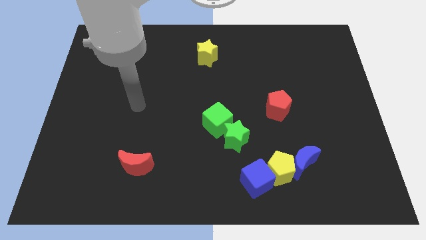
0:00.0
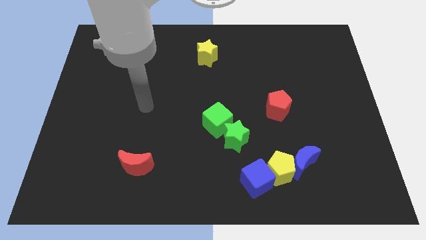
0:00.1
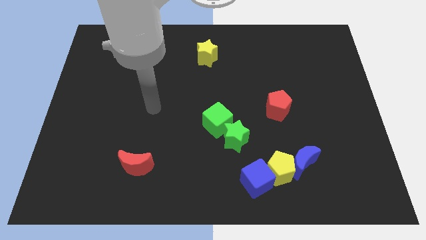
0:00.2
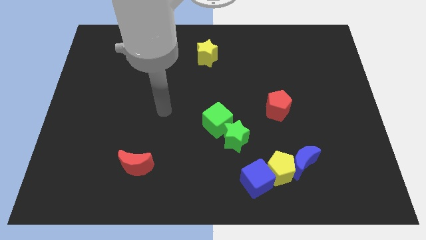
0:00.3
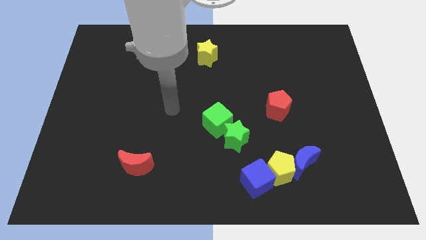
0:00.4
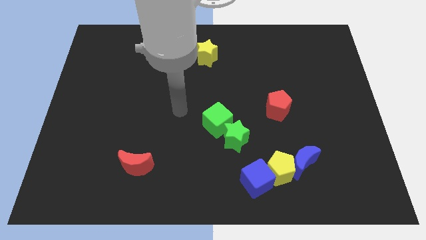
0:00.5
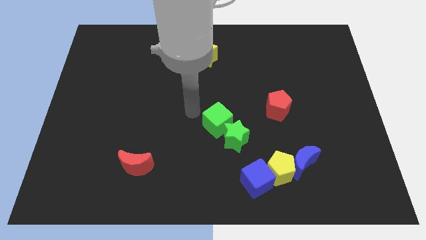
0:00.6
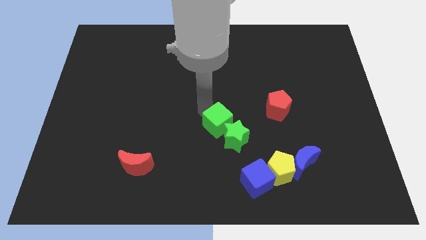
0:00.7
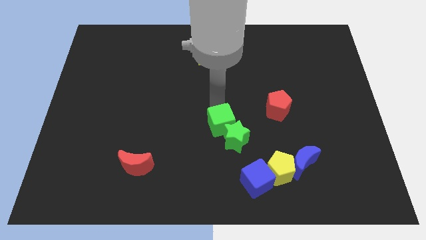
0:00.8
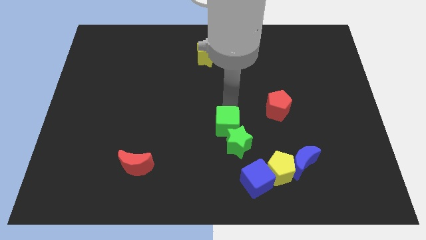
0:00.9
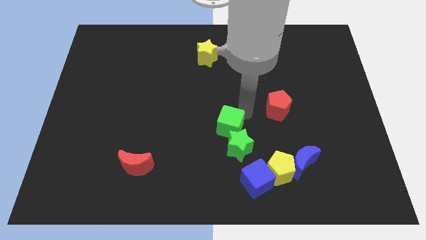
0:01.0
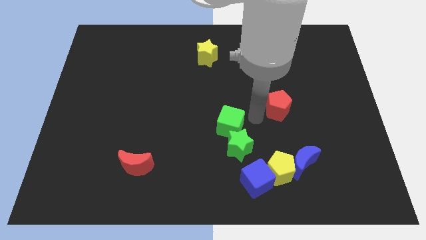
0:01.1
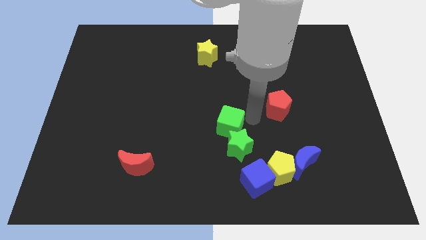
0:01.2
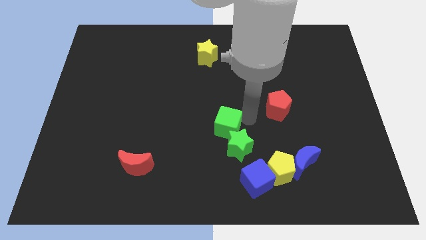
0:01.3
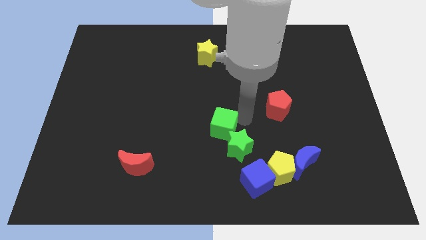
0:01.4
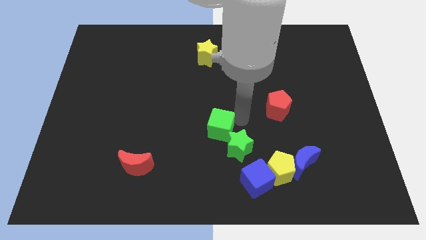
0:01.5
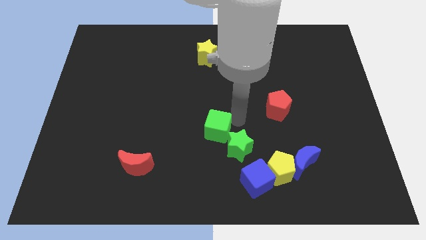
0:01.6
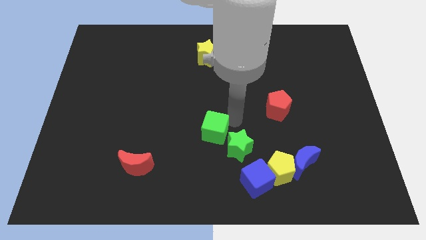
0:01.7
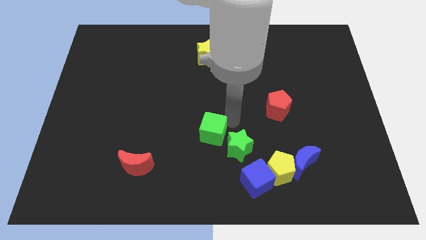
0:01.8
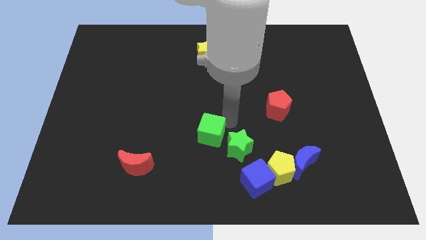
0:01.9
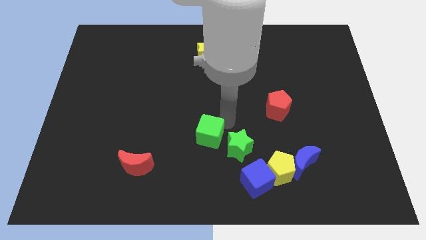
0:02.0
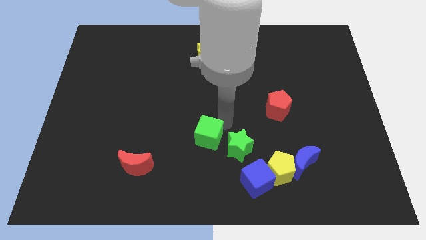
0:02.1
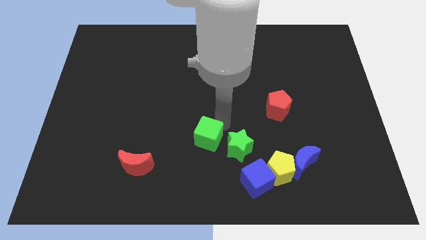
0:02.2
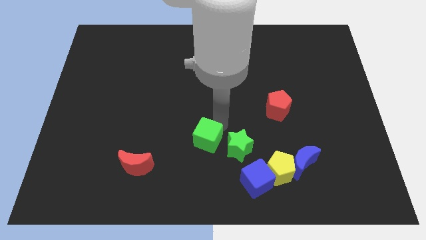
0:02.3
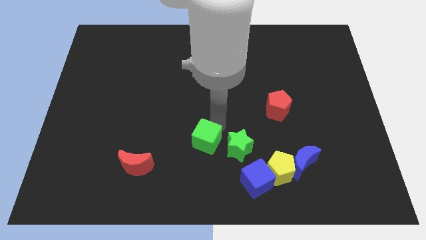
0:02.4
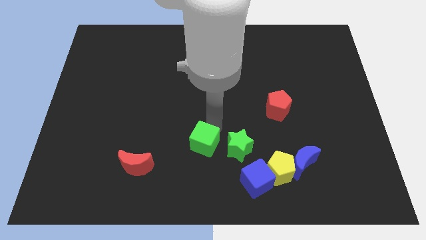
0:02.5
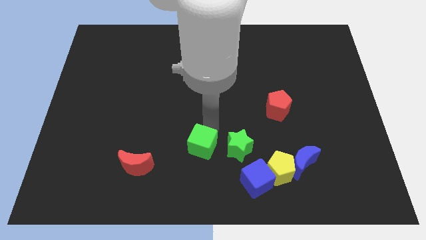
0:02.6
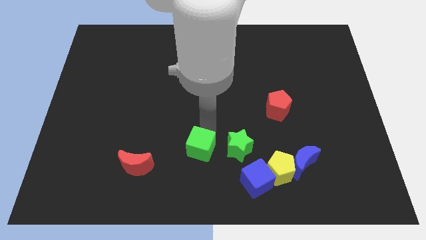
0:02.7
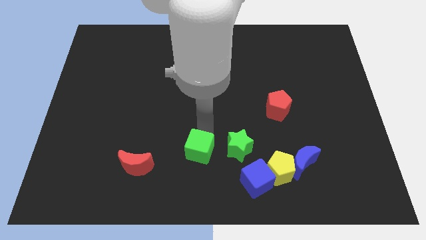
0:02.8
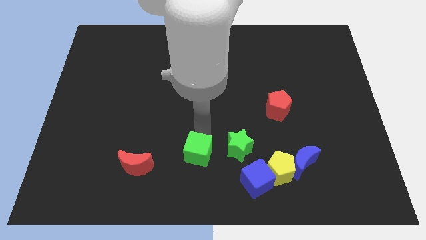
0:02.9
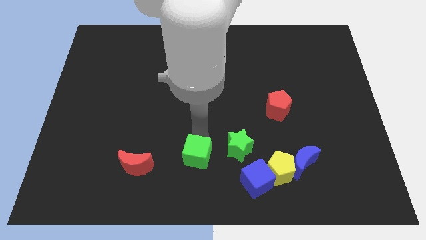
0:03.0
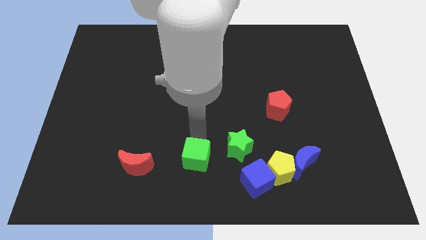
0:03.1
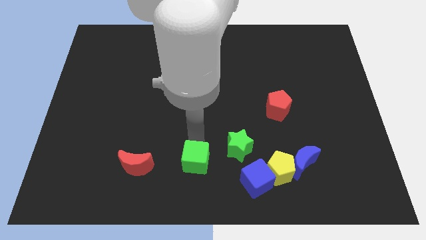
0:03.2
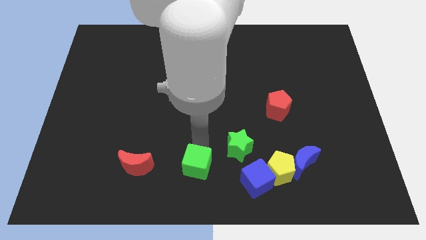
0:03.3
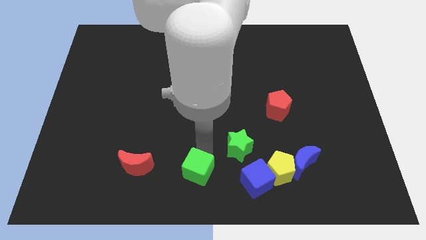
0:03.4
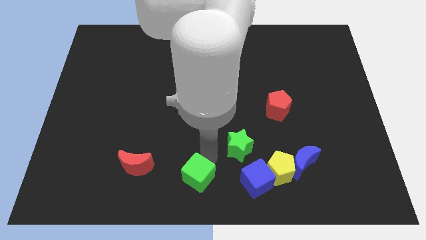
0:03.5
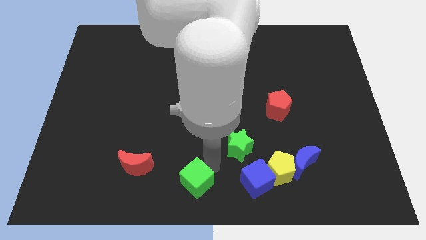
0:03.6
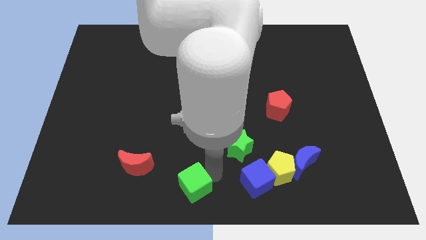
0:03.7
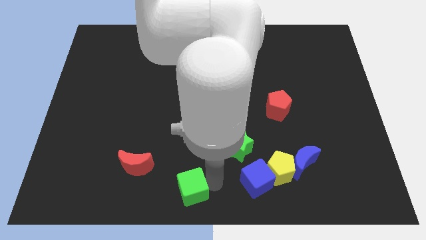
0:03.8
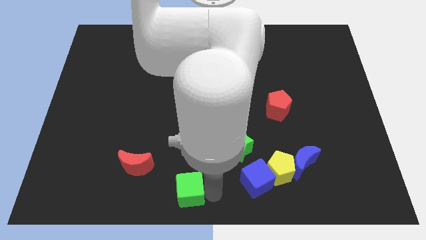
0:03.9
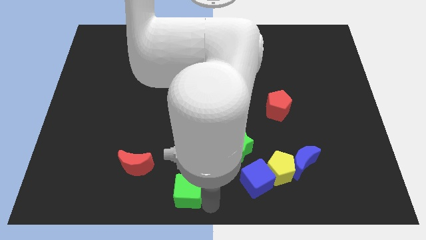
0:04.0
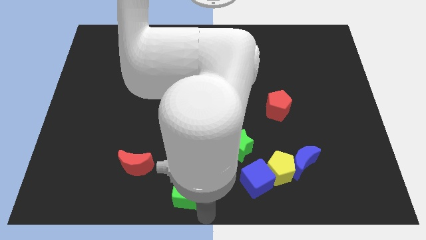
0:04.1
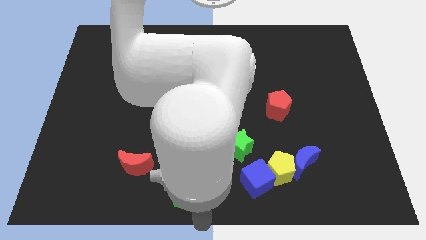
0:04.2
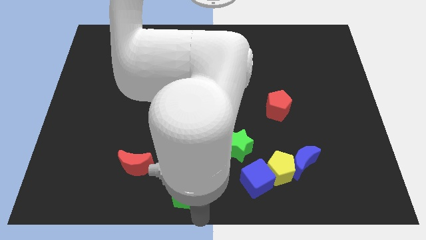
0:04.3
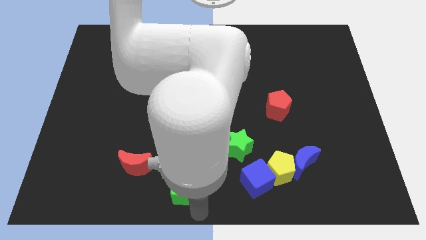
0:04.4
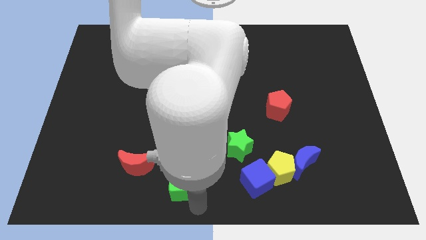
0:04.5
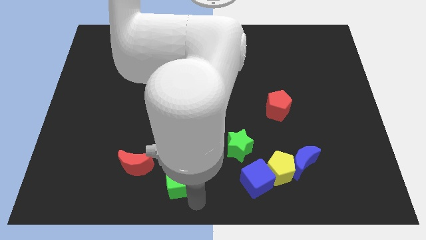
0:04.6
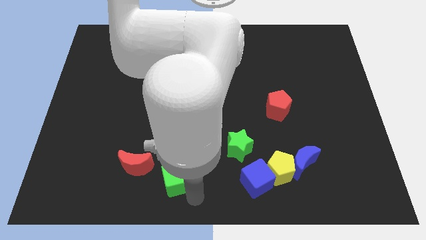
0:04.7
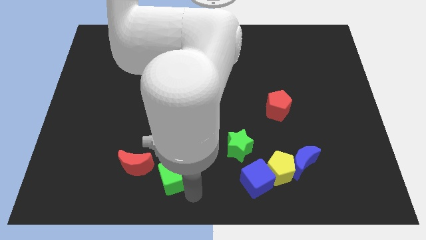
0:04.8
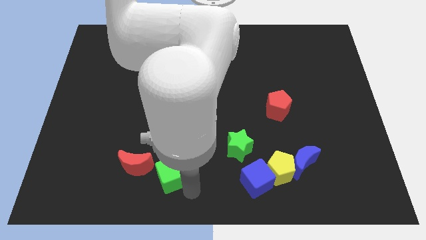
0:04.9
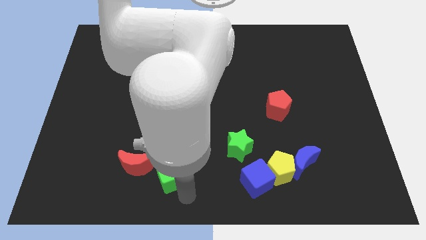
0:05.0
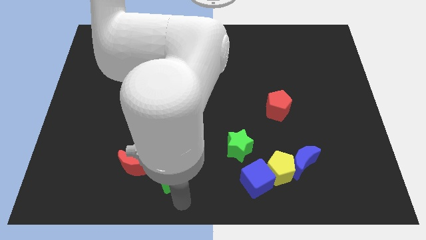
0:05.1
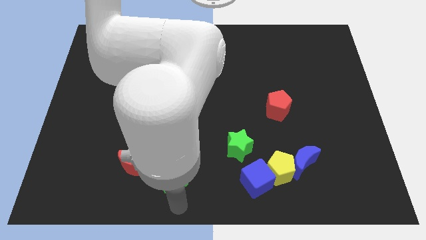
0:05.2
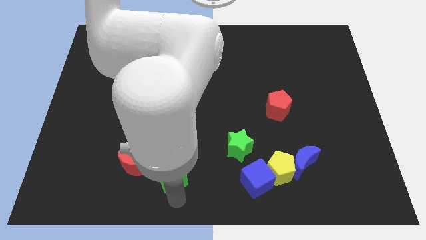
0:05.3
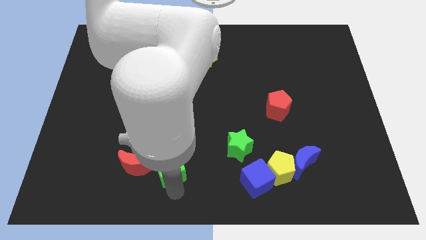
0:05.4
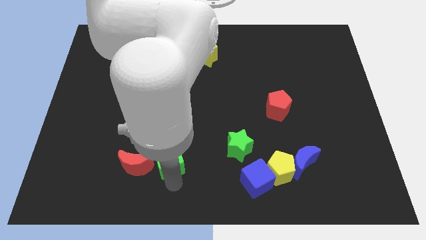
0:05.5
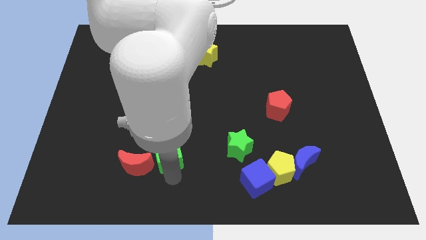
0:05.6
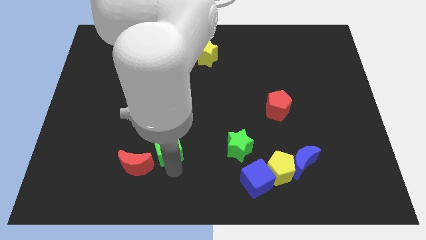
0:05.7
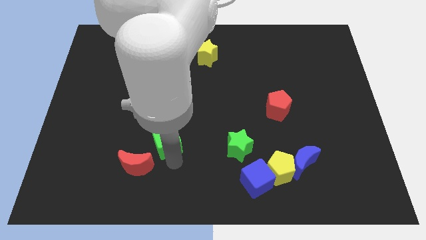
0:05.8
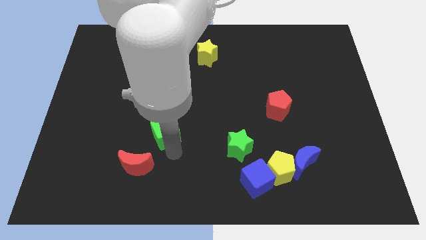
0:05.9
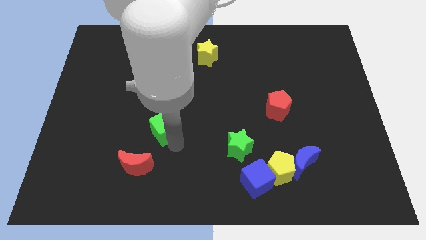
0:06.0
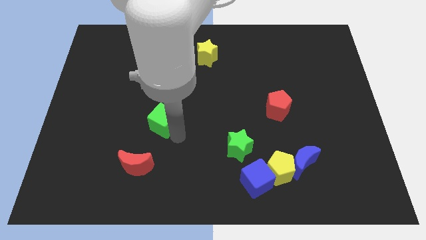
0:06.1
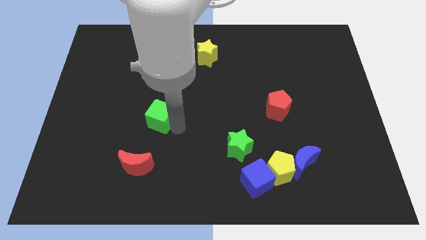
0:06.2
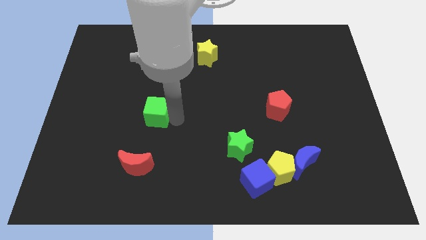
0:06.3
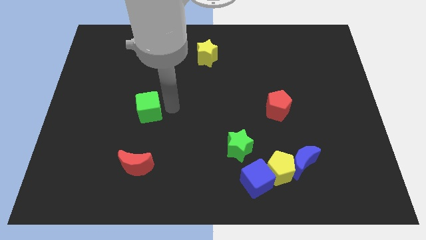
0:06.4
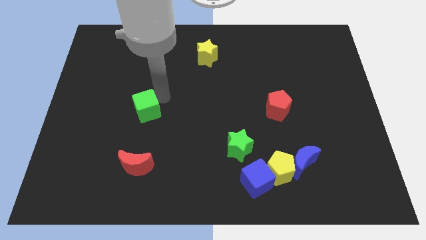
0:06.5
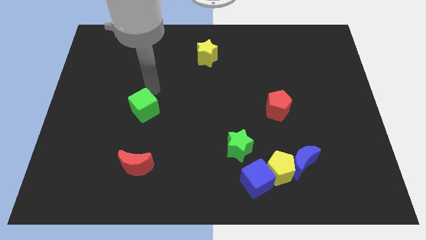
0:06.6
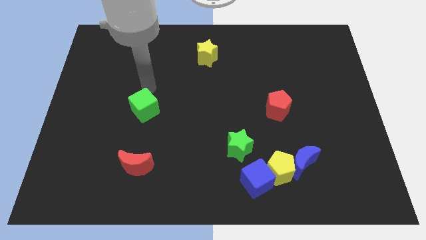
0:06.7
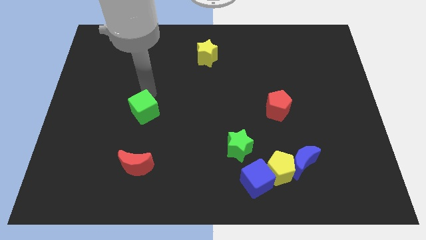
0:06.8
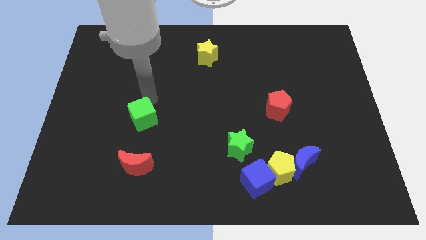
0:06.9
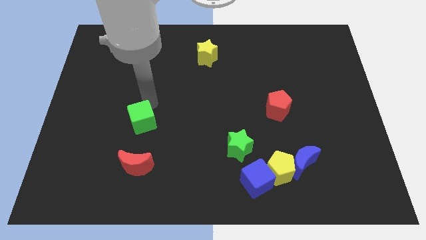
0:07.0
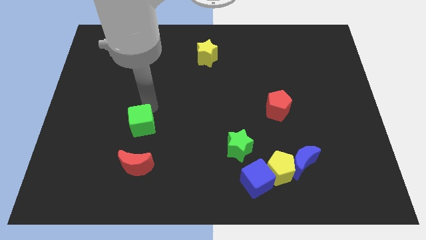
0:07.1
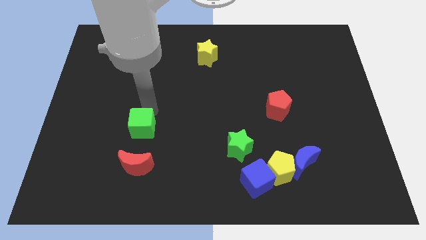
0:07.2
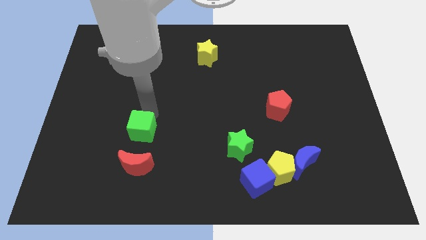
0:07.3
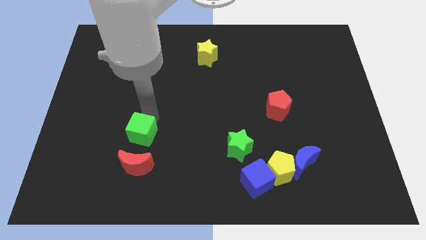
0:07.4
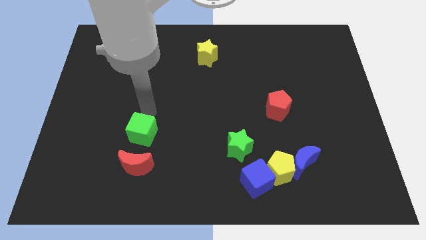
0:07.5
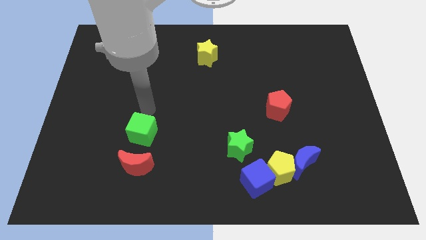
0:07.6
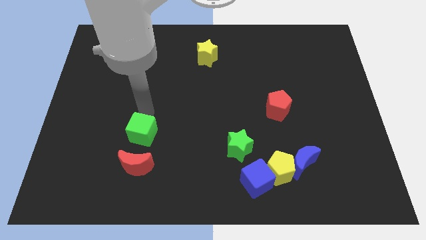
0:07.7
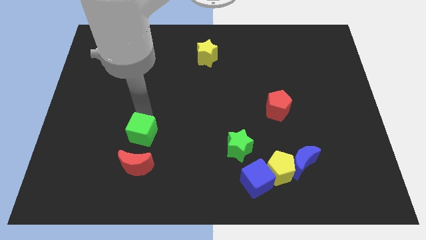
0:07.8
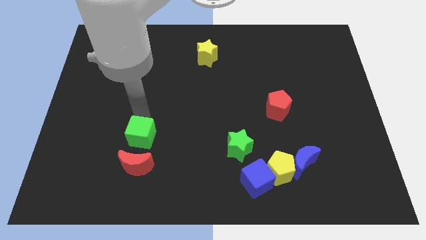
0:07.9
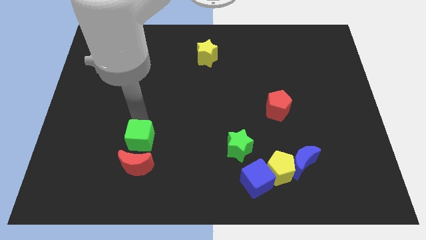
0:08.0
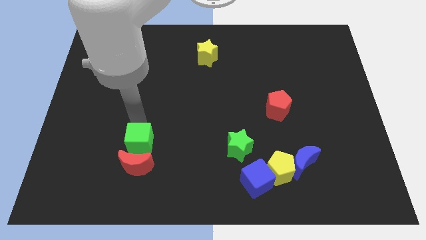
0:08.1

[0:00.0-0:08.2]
put the green cube to the red moon
